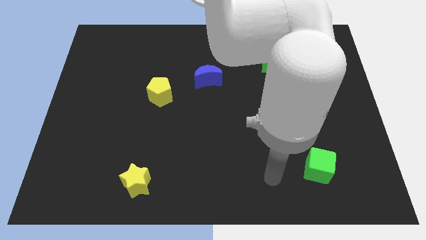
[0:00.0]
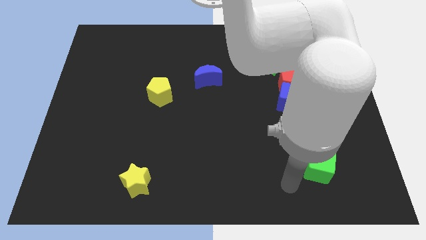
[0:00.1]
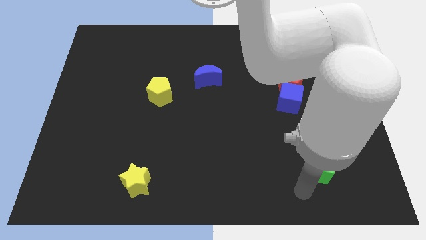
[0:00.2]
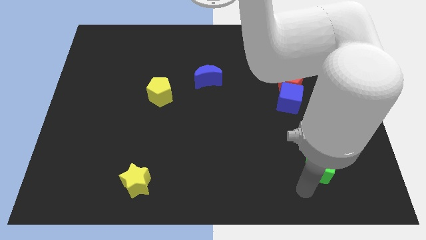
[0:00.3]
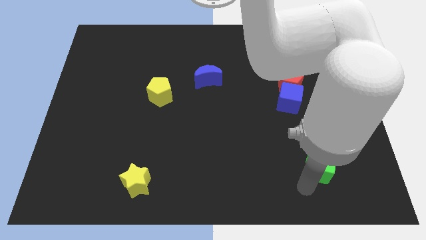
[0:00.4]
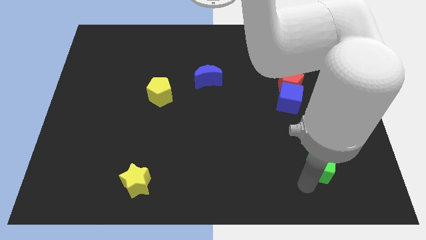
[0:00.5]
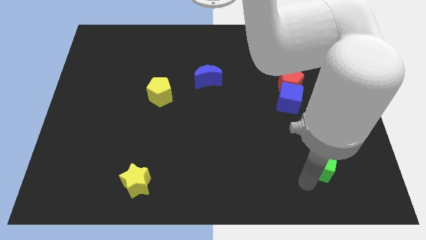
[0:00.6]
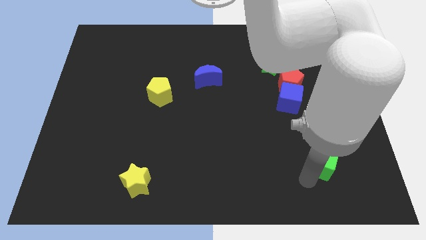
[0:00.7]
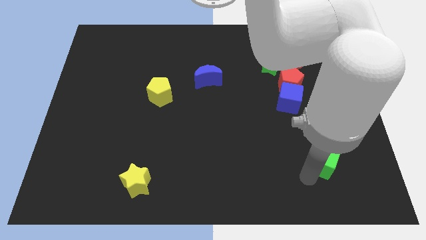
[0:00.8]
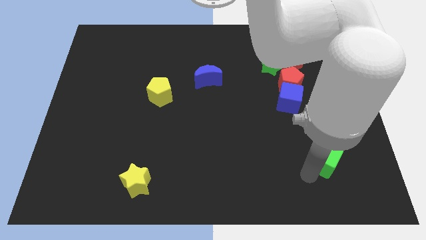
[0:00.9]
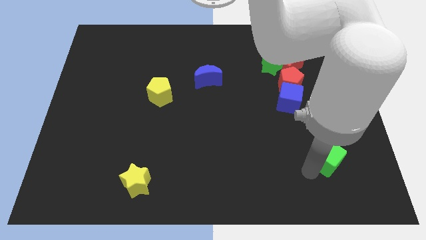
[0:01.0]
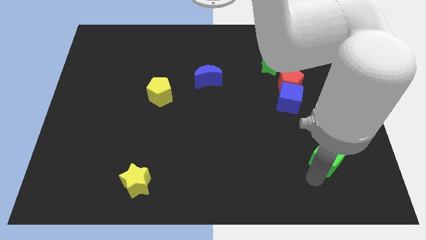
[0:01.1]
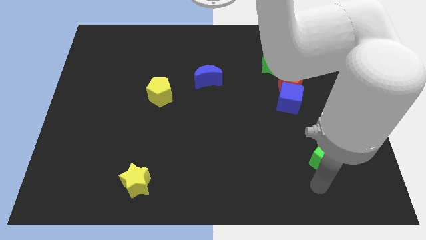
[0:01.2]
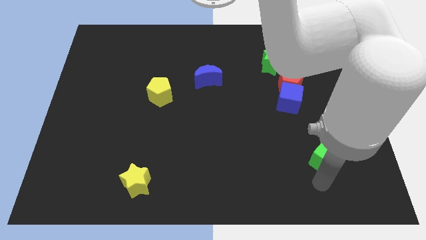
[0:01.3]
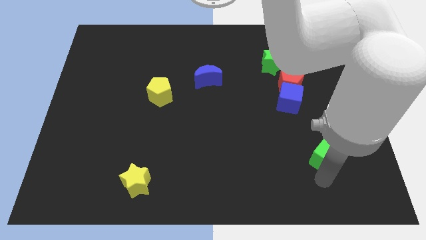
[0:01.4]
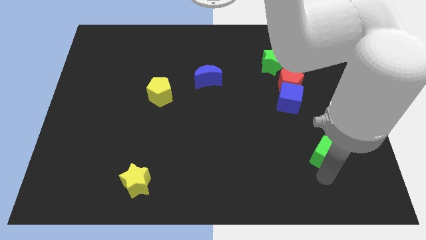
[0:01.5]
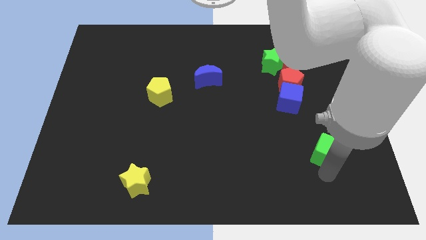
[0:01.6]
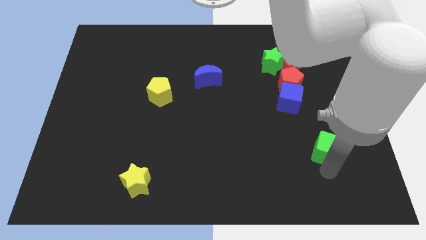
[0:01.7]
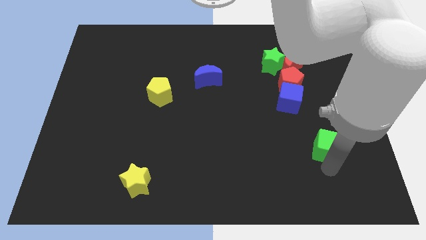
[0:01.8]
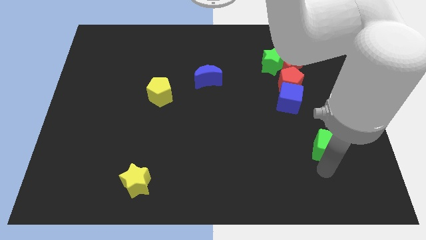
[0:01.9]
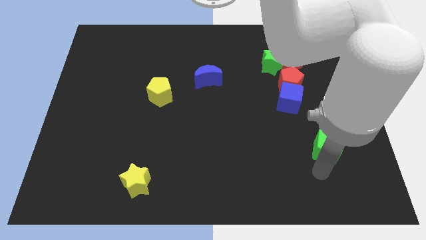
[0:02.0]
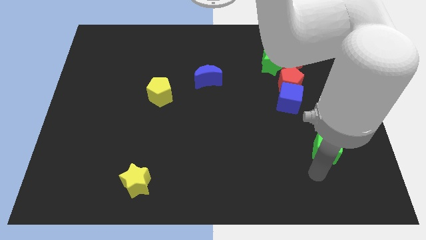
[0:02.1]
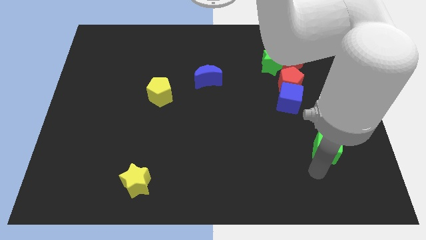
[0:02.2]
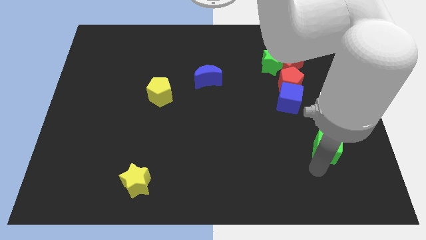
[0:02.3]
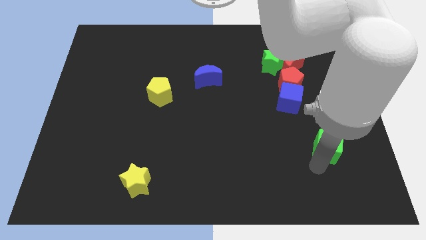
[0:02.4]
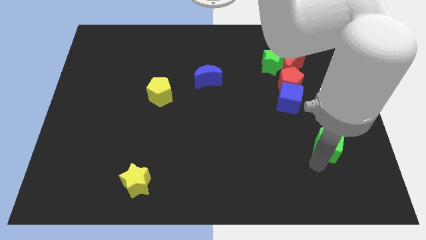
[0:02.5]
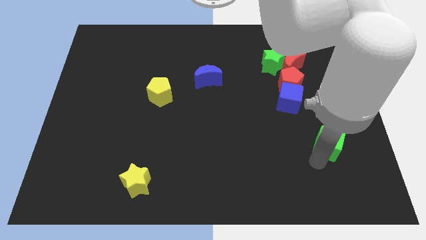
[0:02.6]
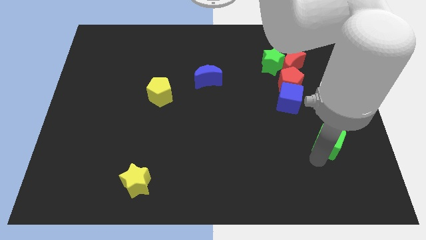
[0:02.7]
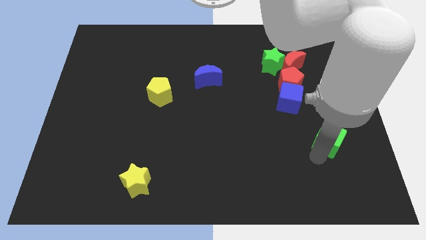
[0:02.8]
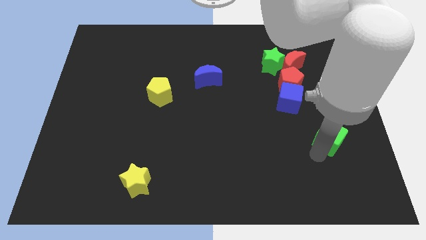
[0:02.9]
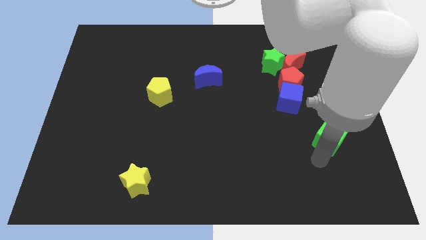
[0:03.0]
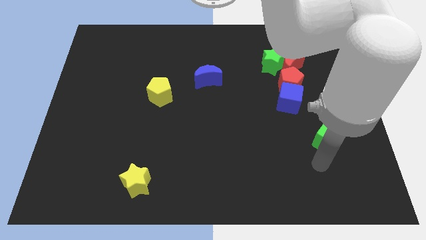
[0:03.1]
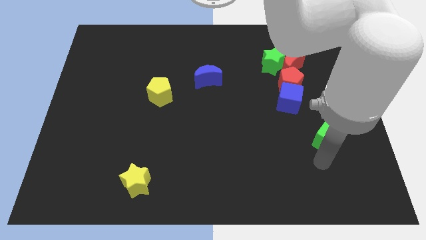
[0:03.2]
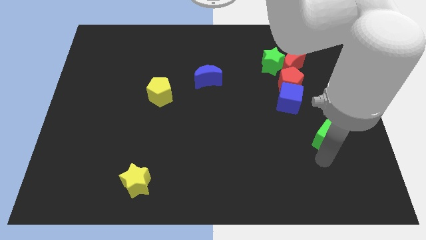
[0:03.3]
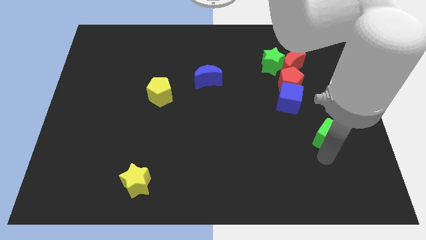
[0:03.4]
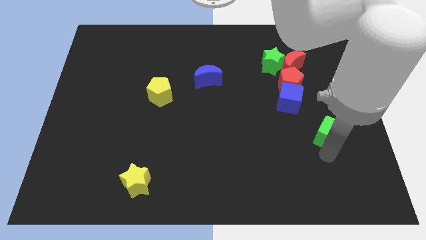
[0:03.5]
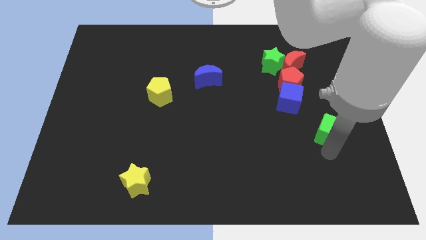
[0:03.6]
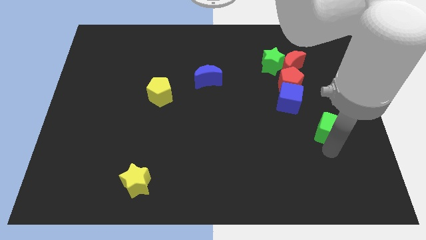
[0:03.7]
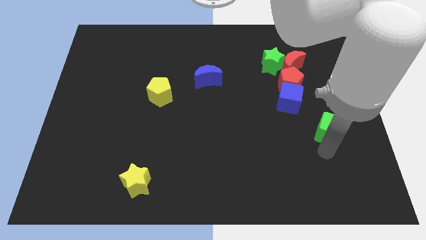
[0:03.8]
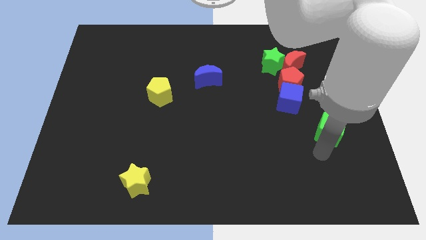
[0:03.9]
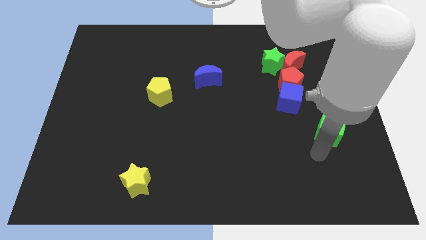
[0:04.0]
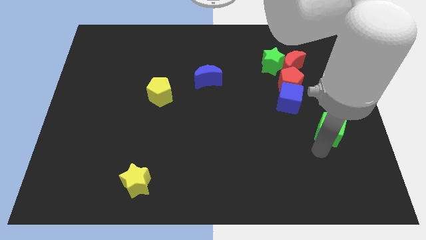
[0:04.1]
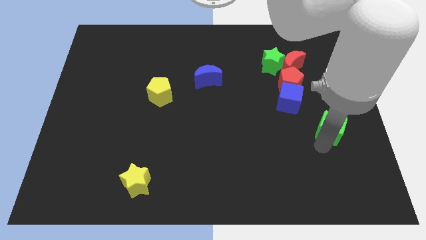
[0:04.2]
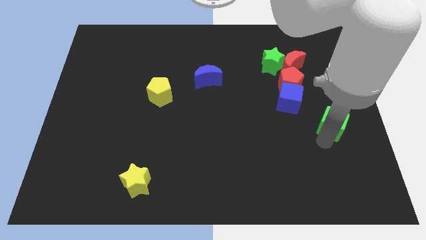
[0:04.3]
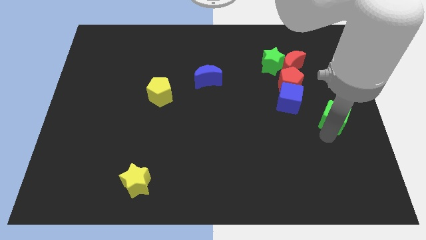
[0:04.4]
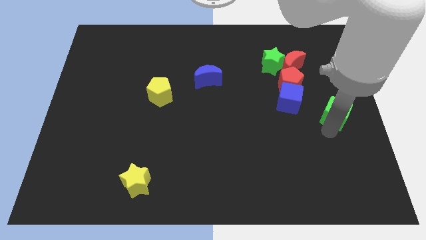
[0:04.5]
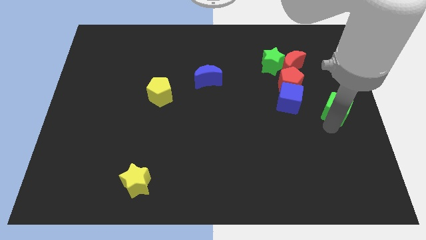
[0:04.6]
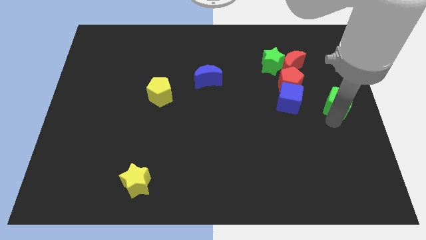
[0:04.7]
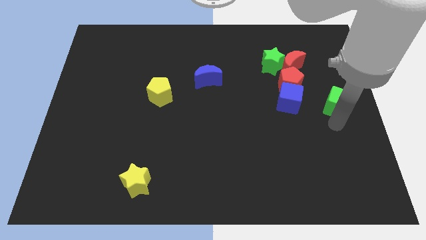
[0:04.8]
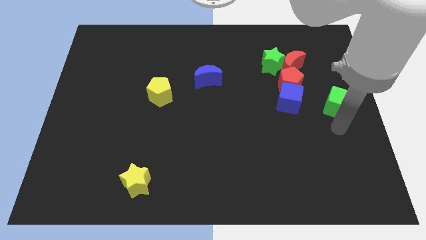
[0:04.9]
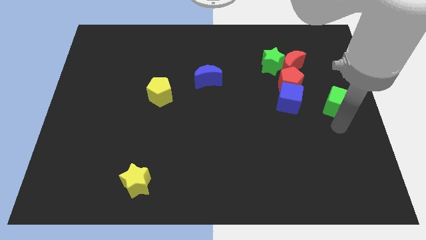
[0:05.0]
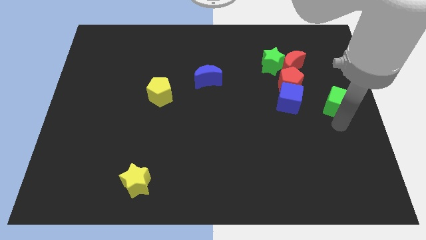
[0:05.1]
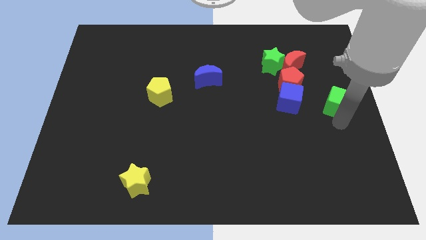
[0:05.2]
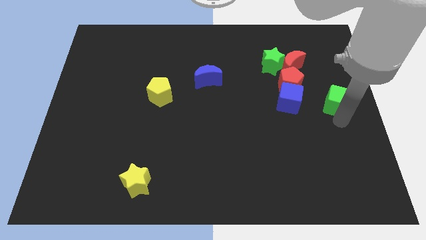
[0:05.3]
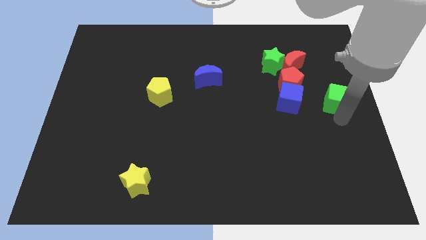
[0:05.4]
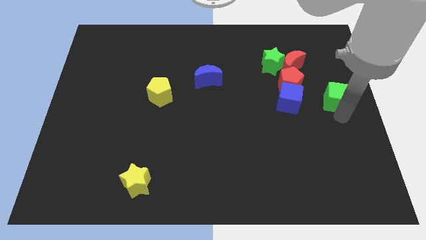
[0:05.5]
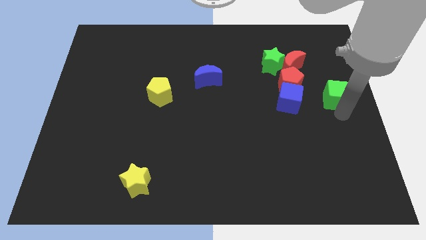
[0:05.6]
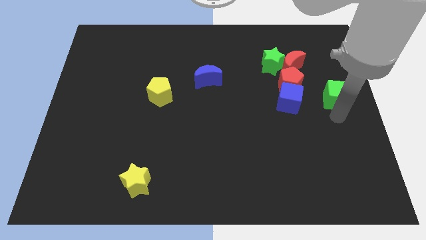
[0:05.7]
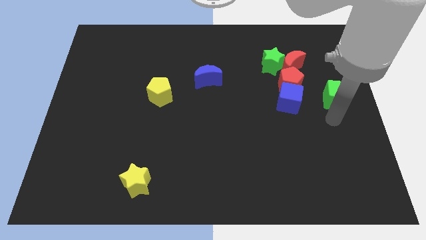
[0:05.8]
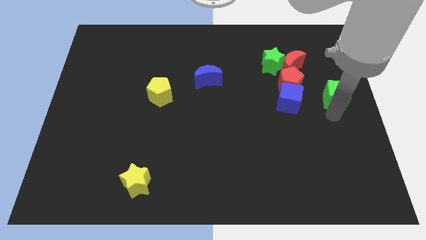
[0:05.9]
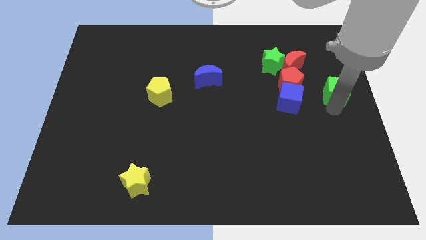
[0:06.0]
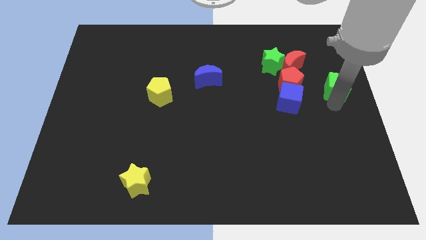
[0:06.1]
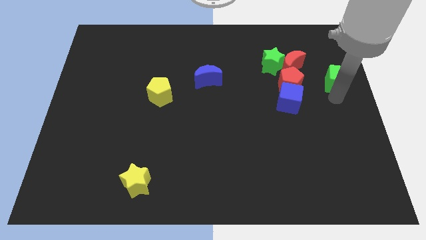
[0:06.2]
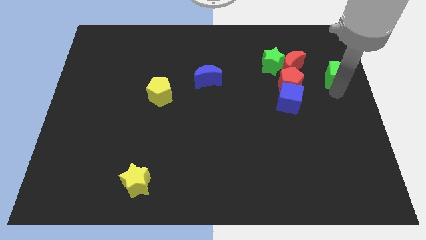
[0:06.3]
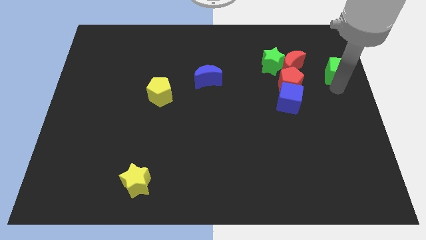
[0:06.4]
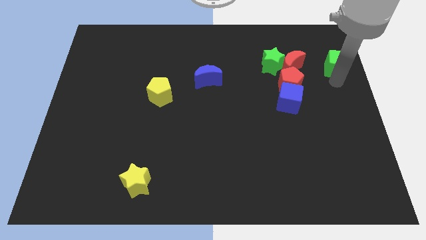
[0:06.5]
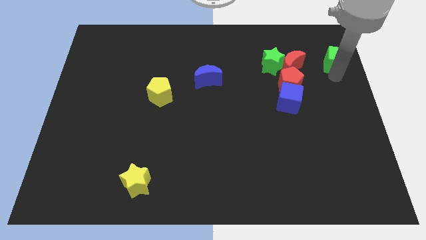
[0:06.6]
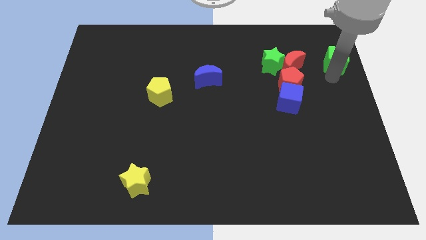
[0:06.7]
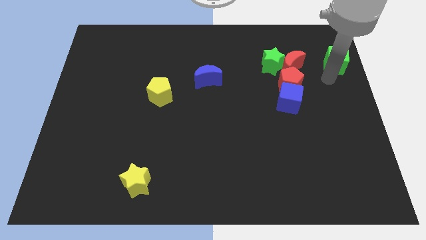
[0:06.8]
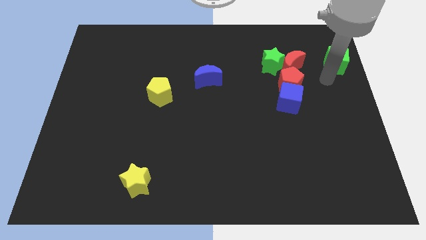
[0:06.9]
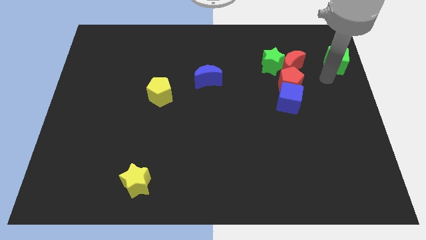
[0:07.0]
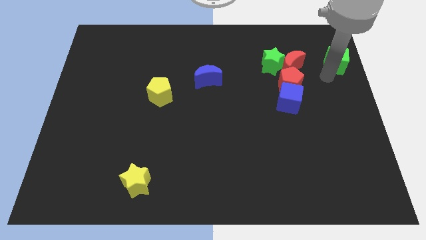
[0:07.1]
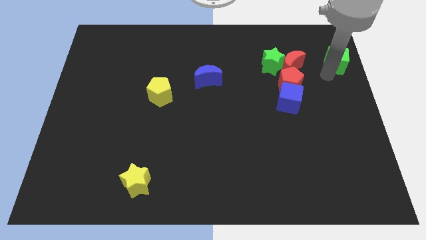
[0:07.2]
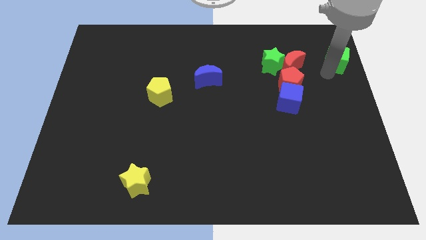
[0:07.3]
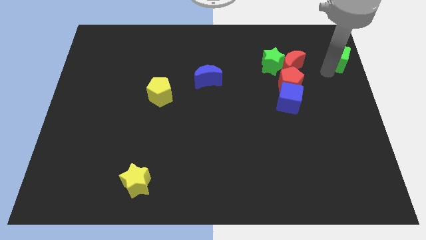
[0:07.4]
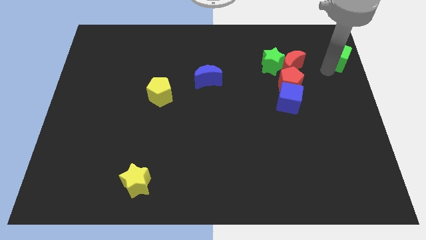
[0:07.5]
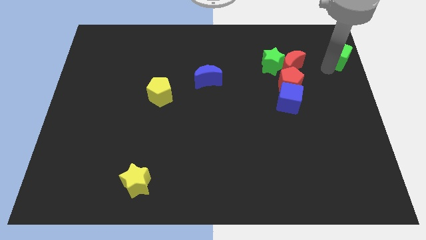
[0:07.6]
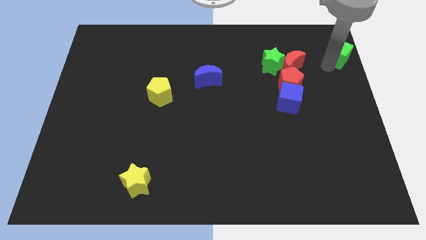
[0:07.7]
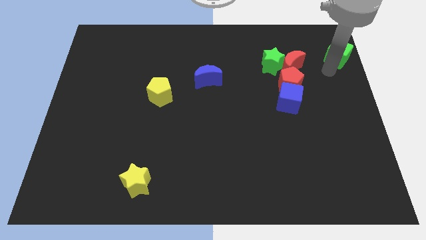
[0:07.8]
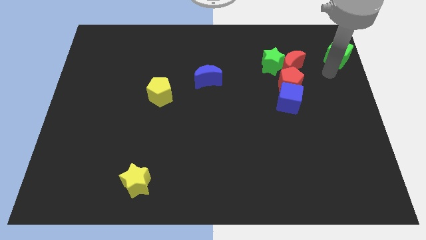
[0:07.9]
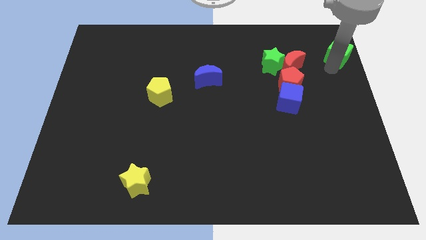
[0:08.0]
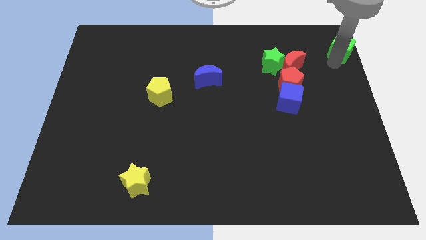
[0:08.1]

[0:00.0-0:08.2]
slide the green cube to the top right of the board
